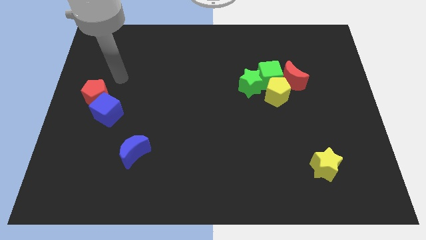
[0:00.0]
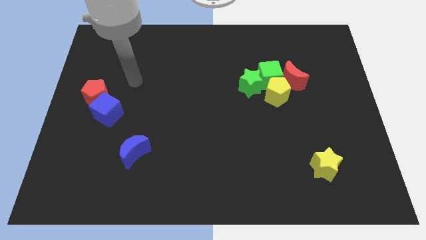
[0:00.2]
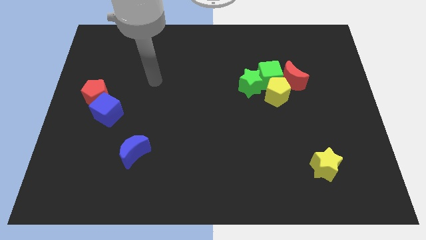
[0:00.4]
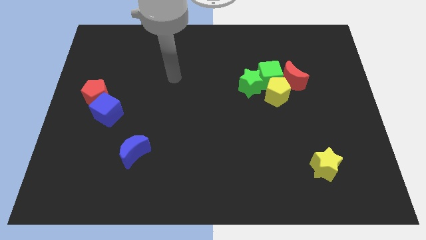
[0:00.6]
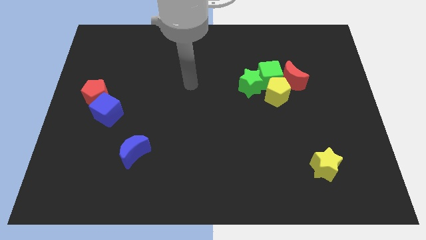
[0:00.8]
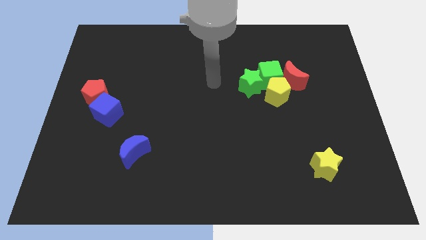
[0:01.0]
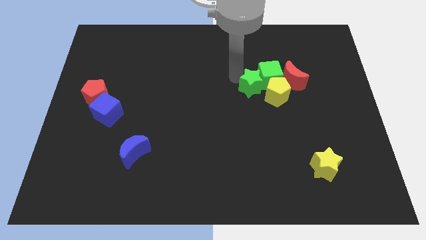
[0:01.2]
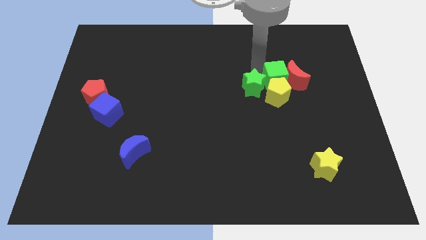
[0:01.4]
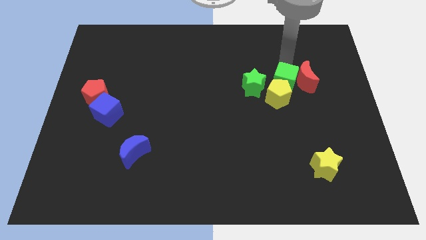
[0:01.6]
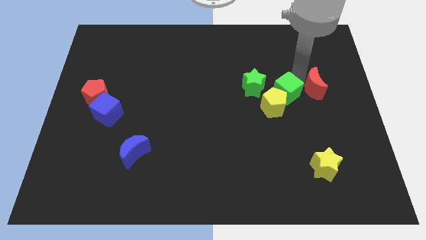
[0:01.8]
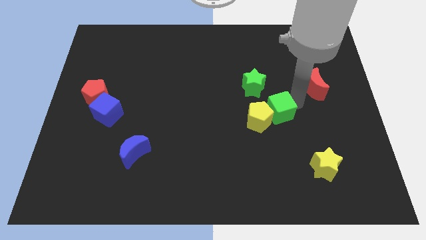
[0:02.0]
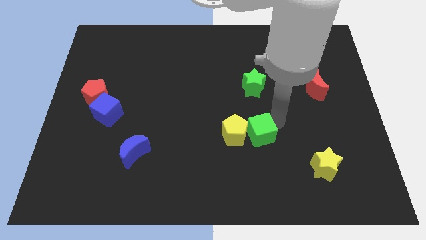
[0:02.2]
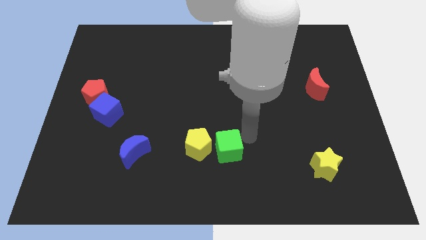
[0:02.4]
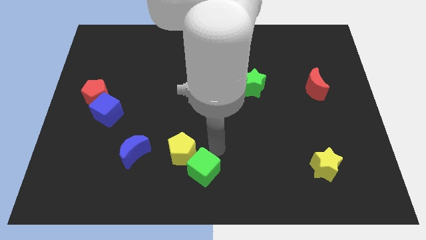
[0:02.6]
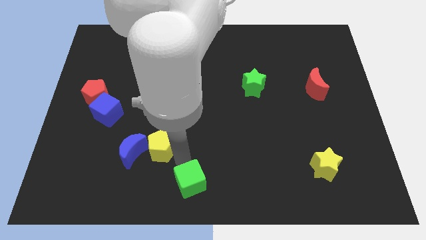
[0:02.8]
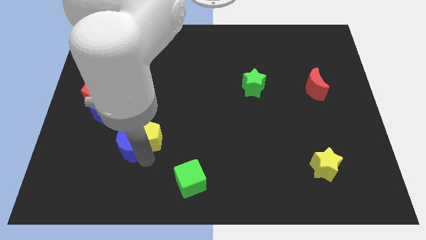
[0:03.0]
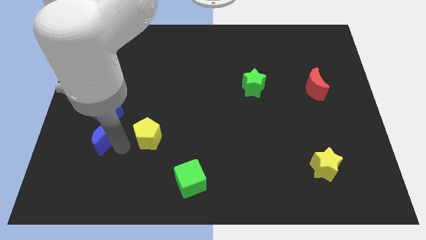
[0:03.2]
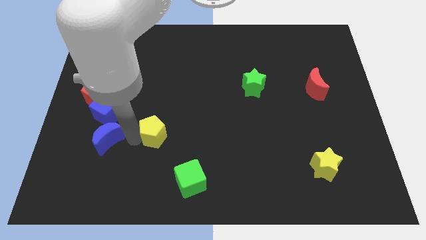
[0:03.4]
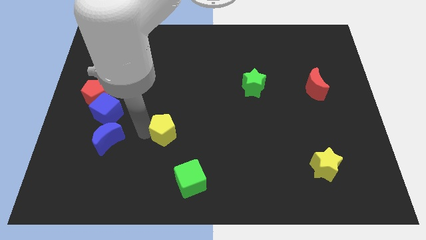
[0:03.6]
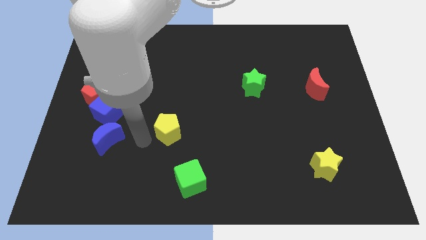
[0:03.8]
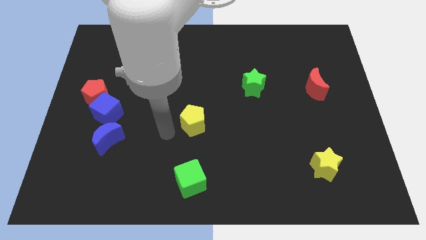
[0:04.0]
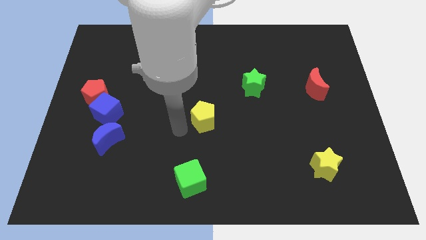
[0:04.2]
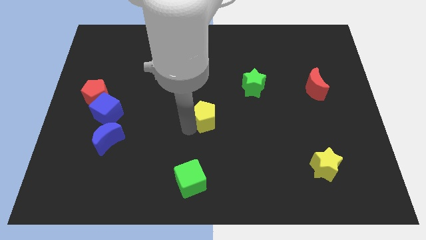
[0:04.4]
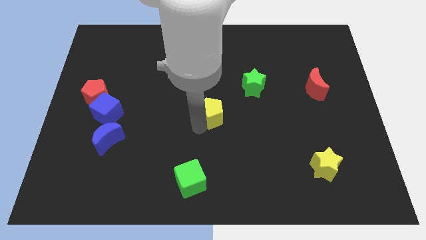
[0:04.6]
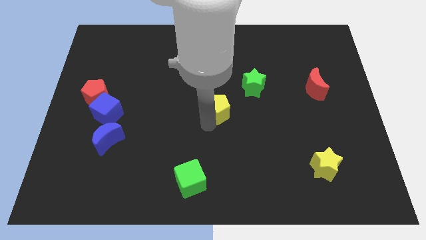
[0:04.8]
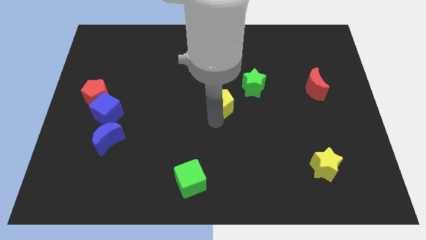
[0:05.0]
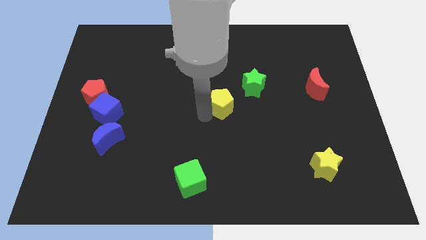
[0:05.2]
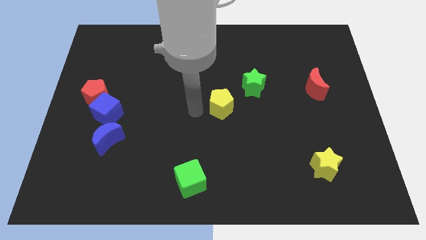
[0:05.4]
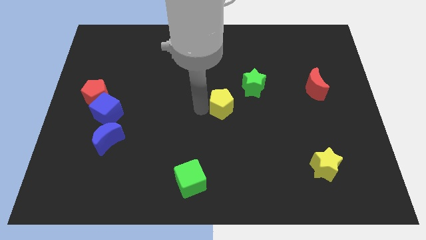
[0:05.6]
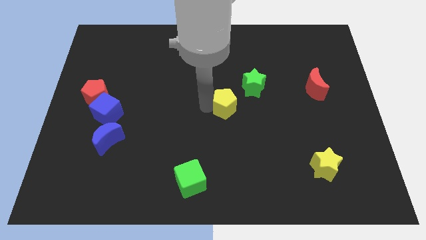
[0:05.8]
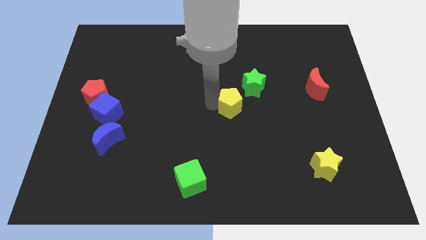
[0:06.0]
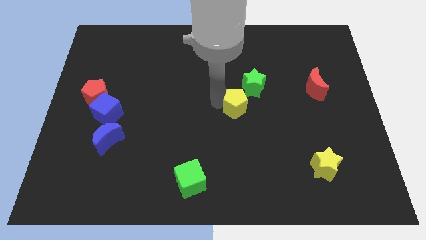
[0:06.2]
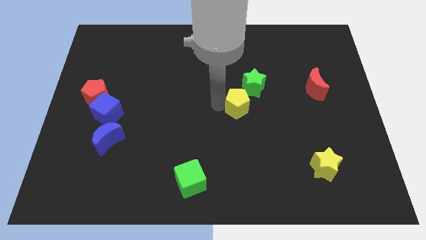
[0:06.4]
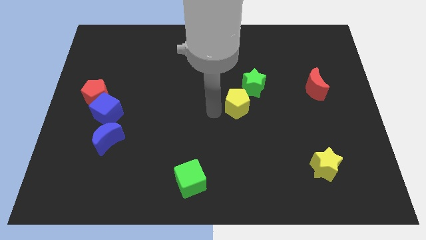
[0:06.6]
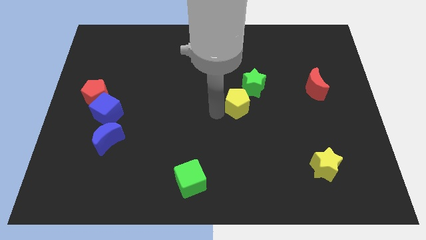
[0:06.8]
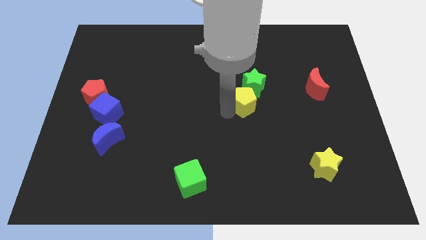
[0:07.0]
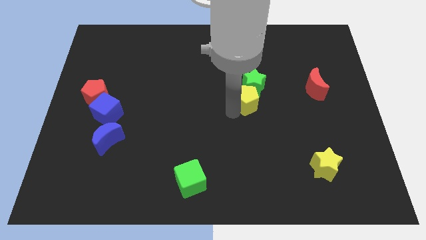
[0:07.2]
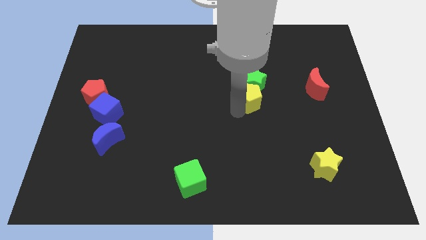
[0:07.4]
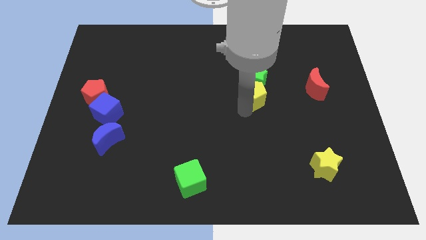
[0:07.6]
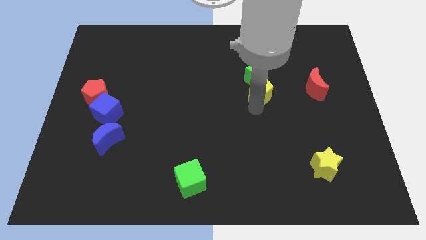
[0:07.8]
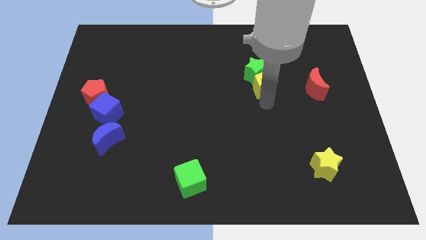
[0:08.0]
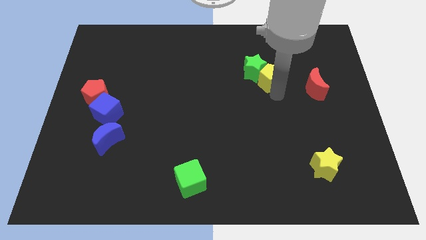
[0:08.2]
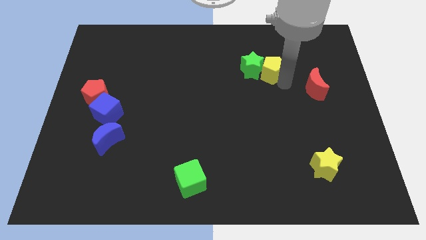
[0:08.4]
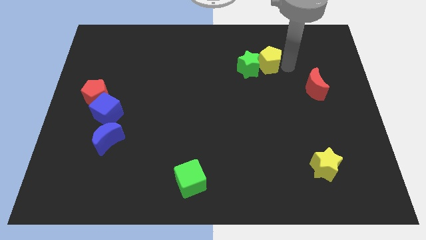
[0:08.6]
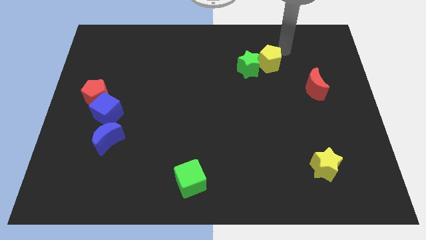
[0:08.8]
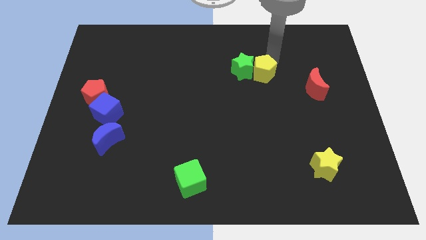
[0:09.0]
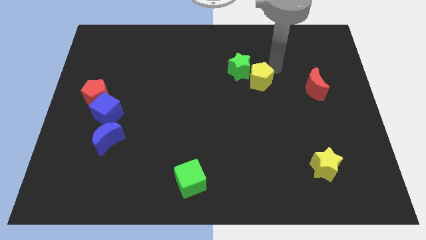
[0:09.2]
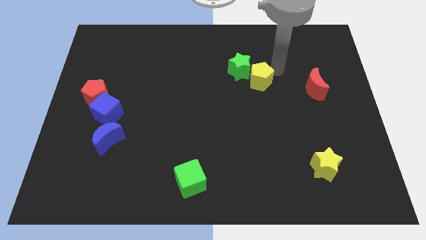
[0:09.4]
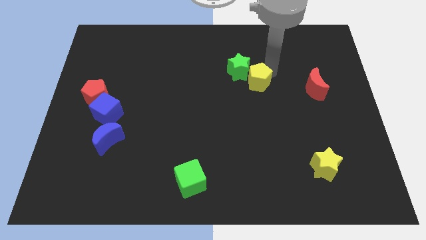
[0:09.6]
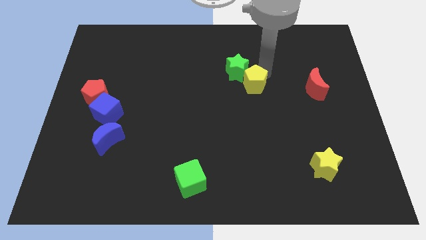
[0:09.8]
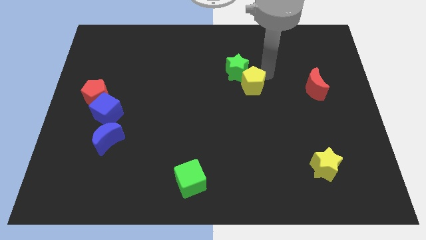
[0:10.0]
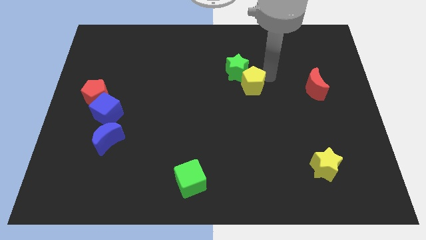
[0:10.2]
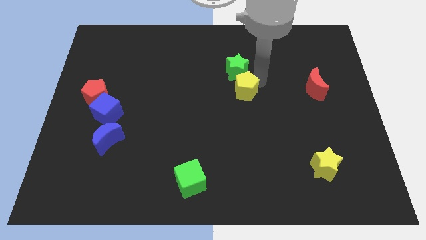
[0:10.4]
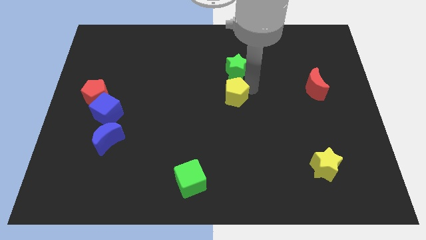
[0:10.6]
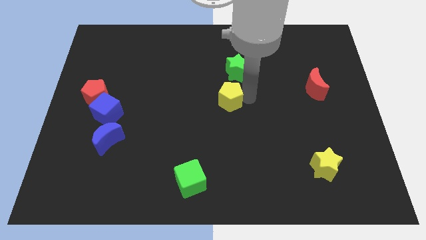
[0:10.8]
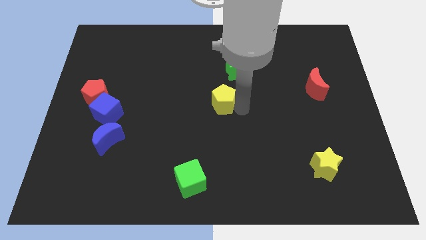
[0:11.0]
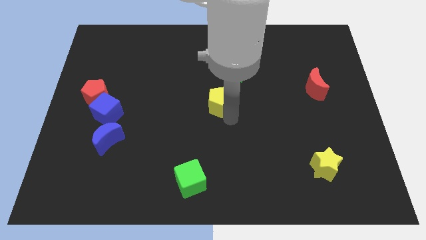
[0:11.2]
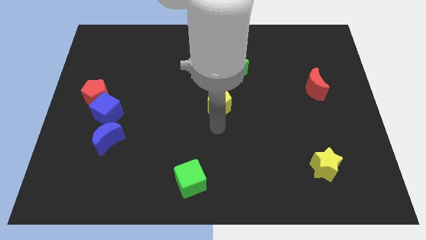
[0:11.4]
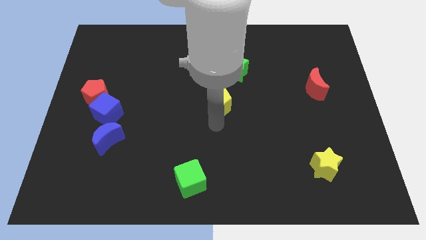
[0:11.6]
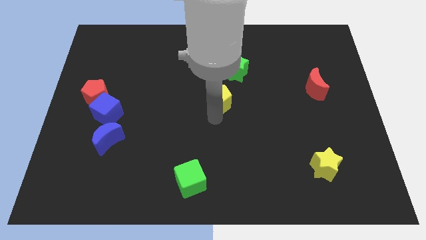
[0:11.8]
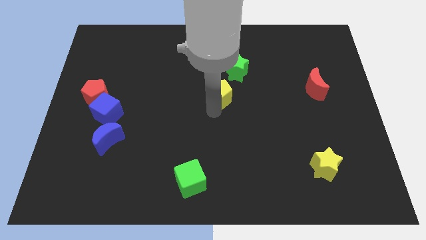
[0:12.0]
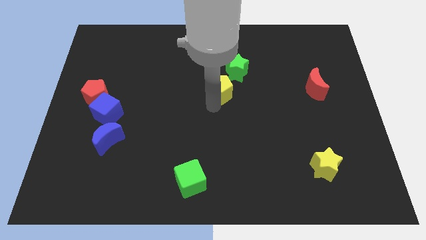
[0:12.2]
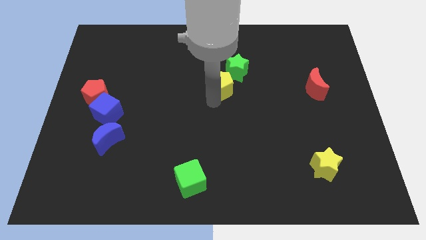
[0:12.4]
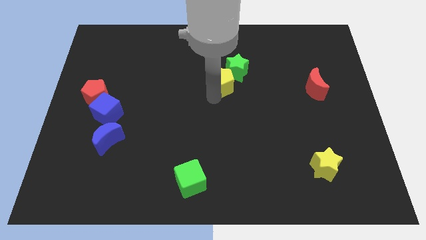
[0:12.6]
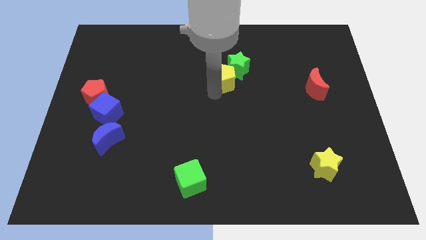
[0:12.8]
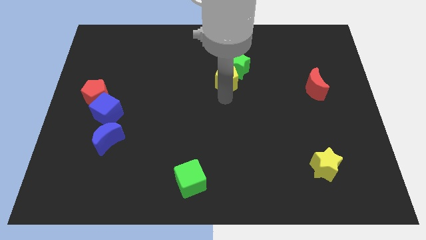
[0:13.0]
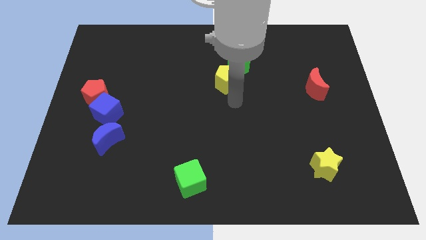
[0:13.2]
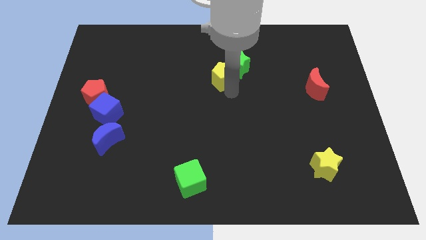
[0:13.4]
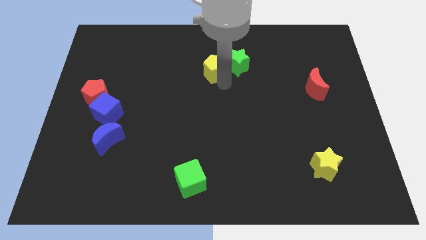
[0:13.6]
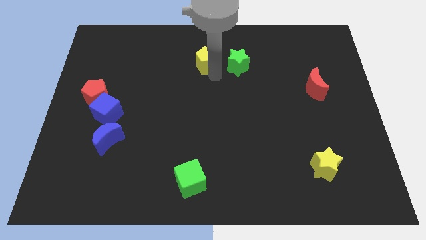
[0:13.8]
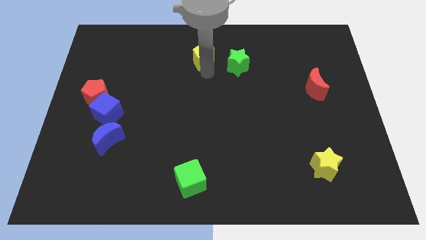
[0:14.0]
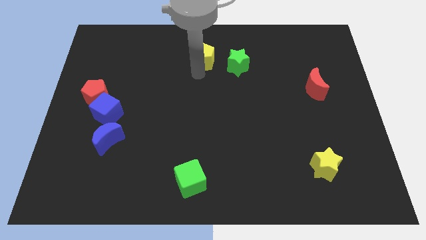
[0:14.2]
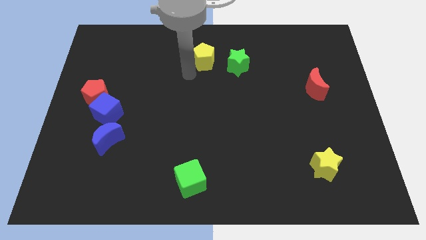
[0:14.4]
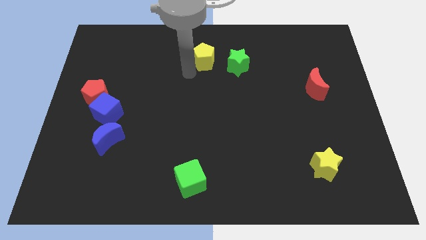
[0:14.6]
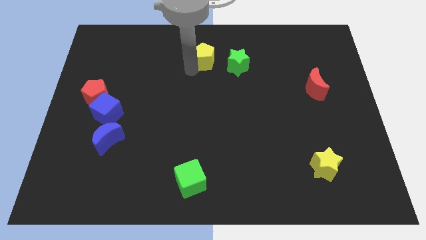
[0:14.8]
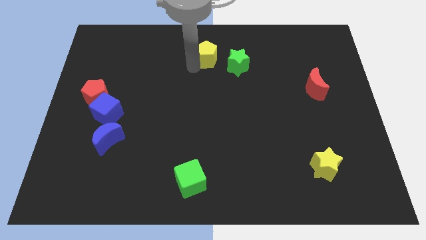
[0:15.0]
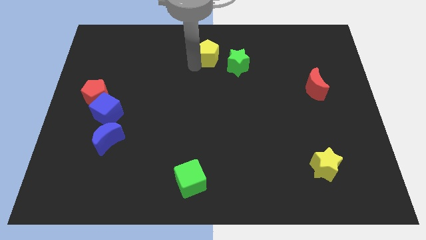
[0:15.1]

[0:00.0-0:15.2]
put the yellow pentagon to the top
